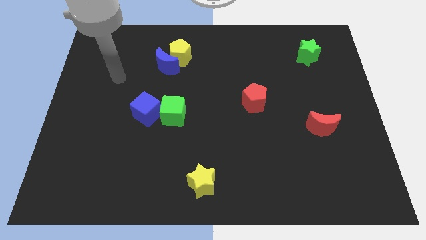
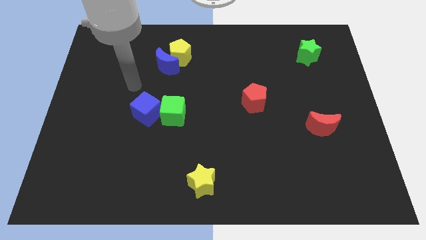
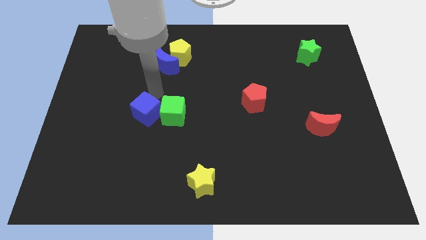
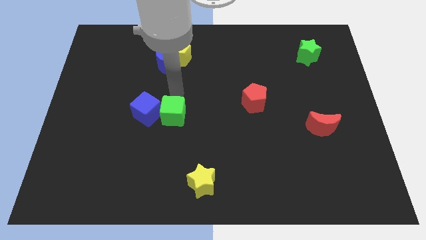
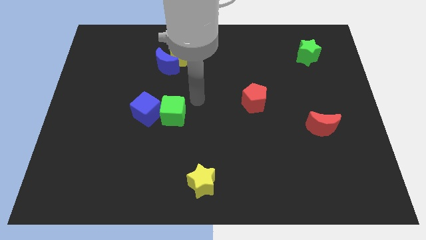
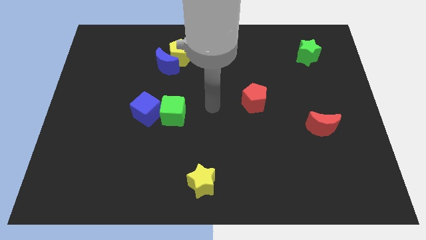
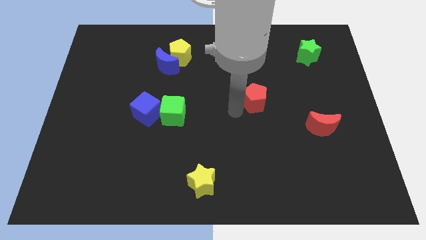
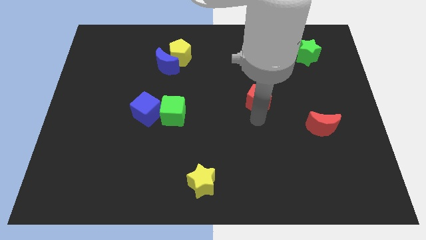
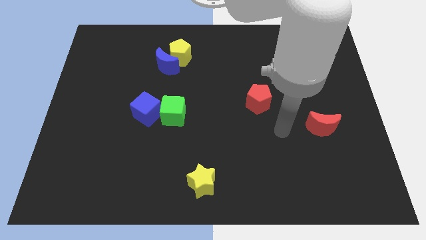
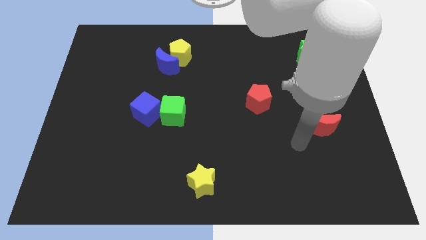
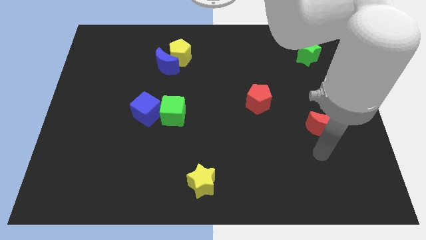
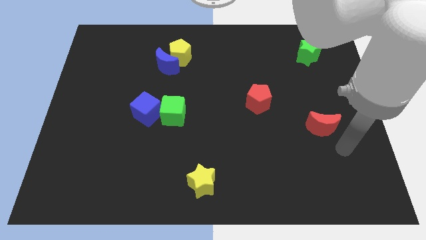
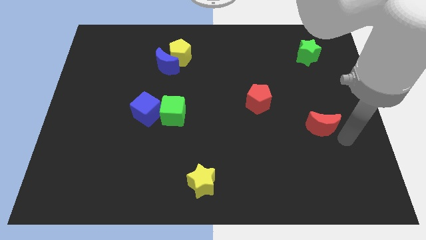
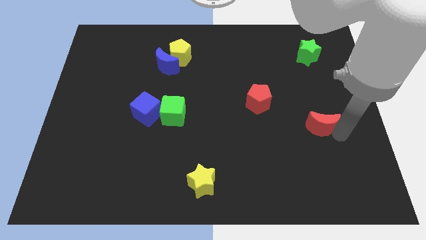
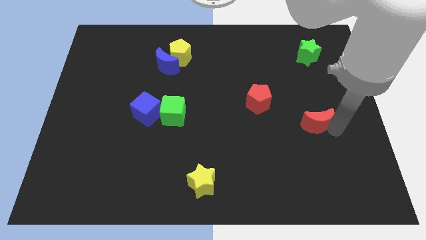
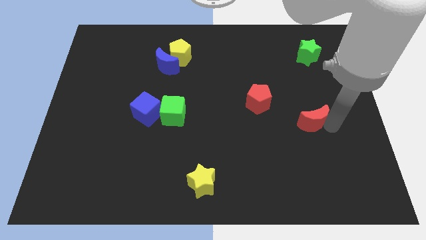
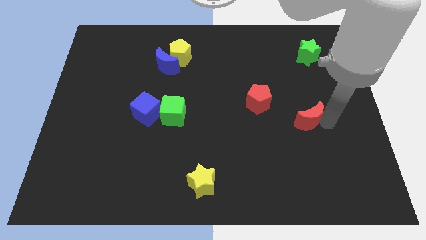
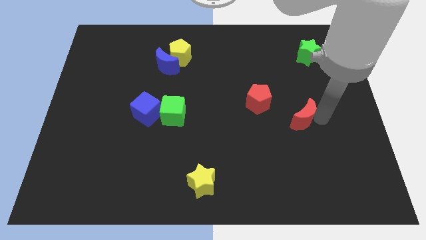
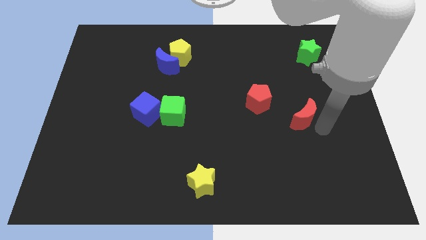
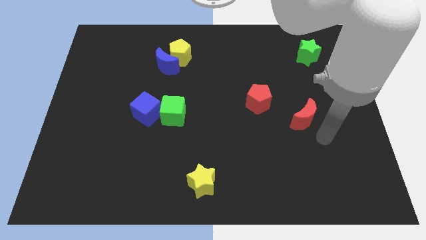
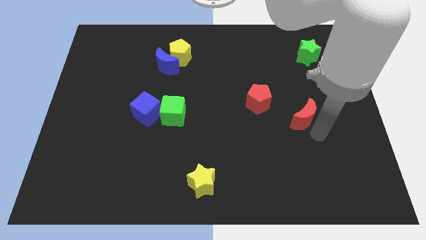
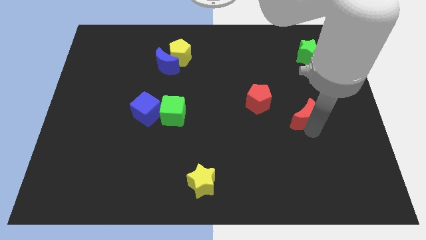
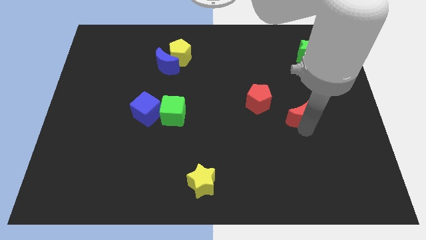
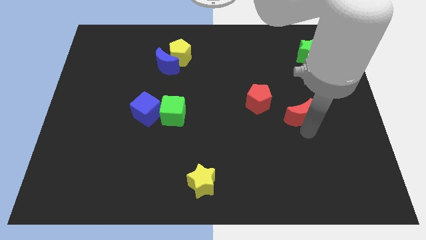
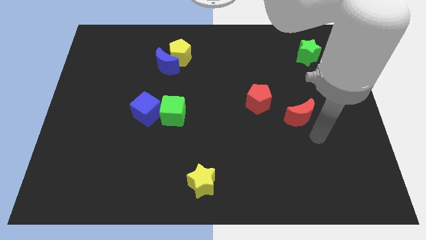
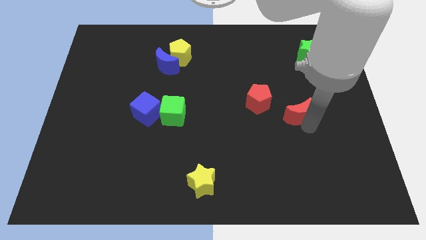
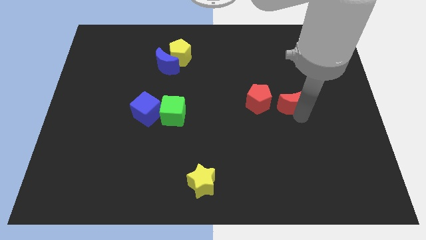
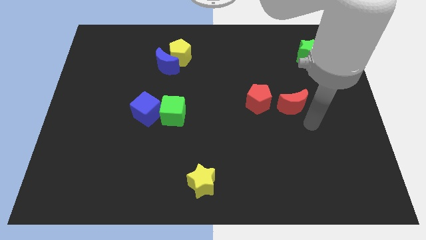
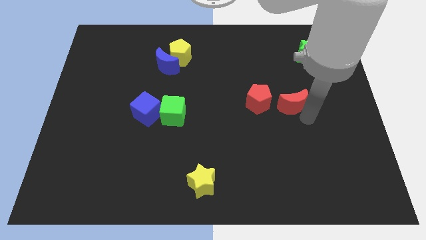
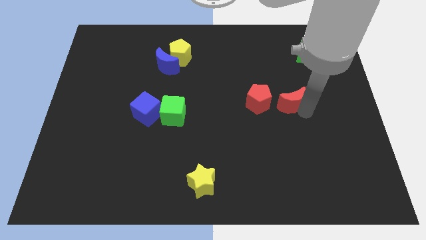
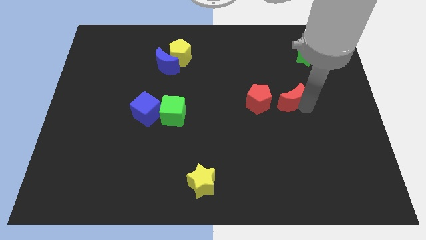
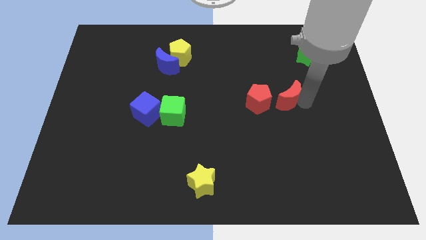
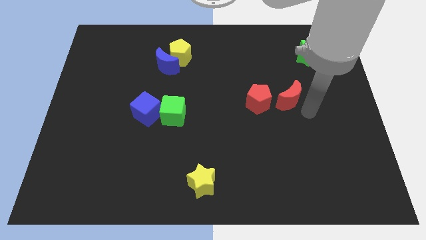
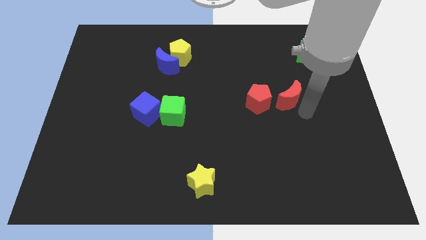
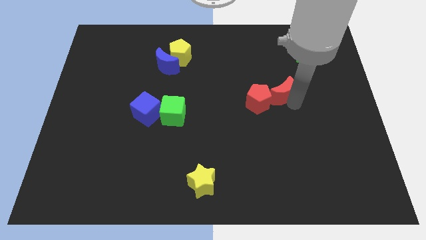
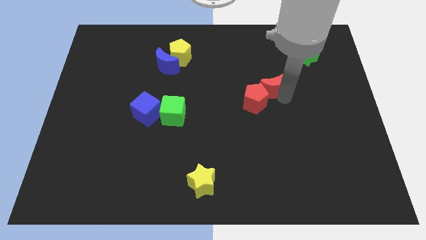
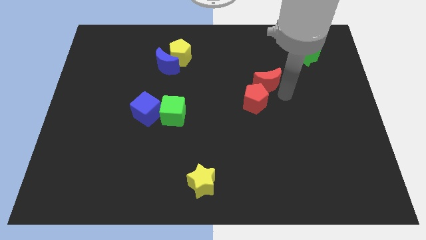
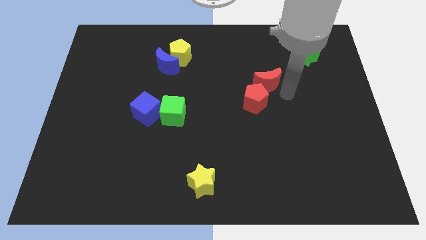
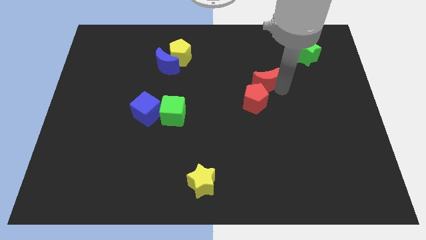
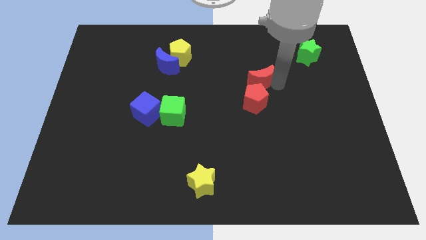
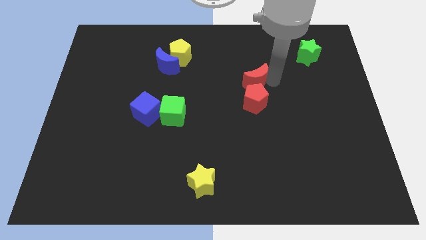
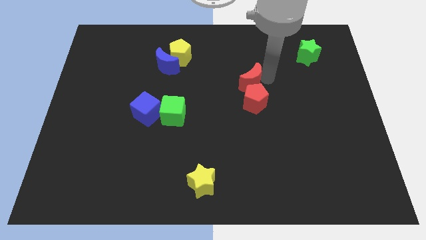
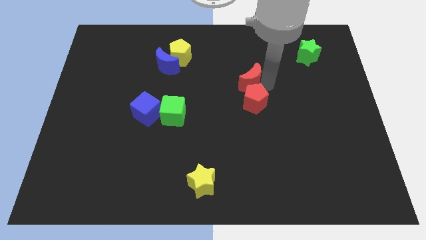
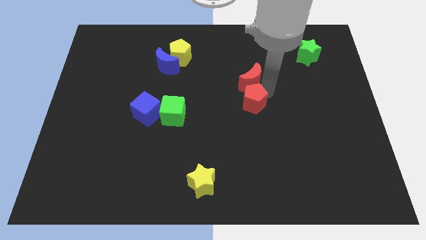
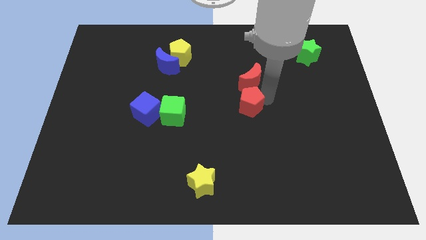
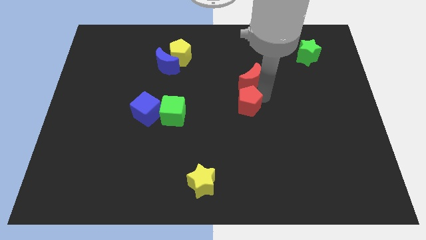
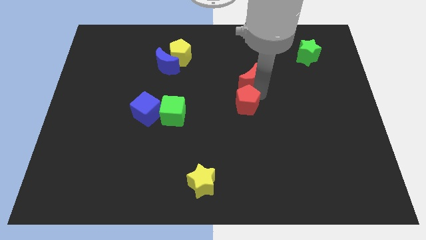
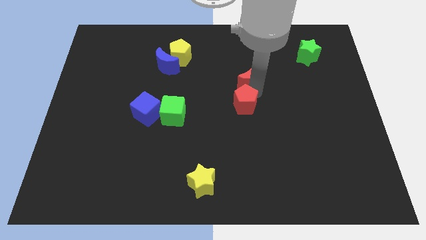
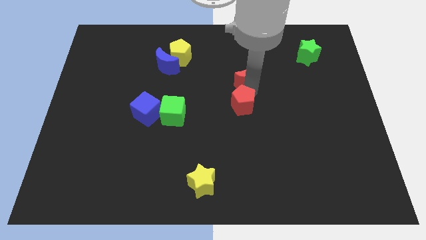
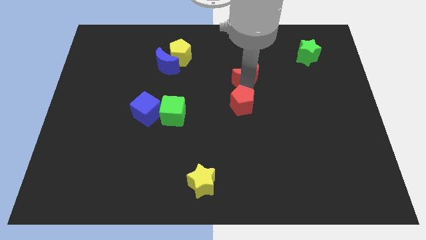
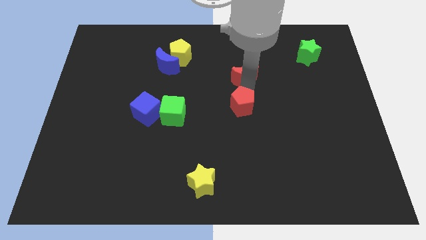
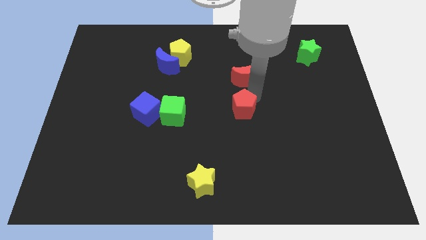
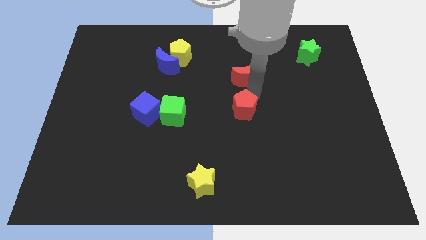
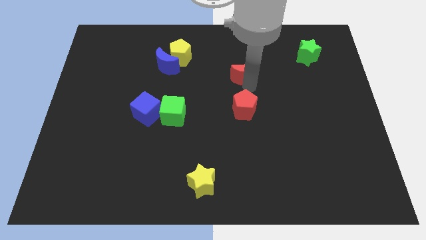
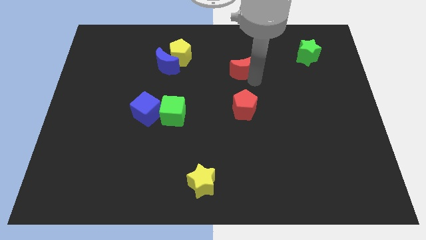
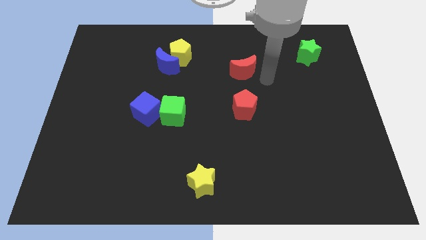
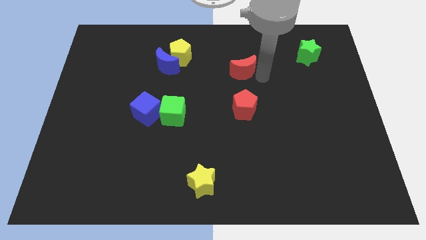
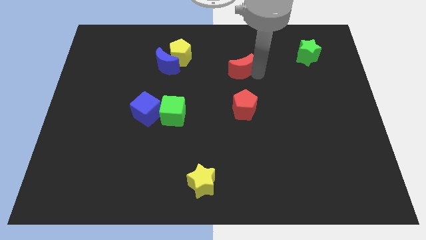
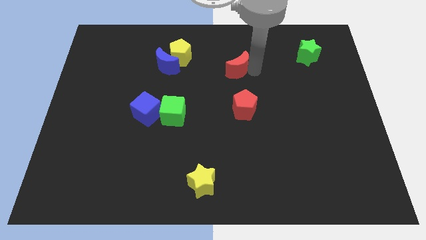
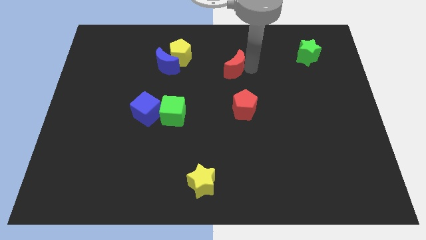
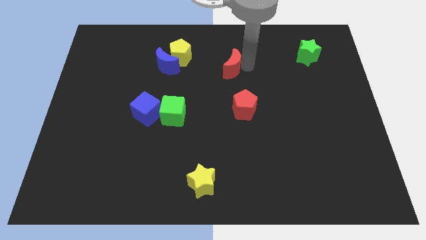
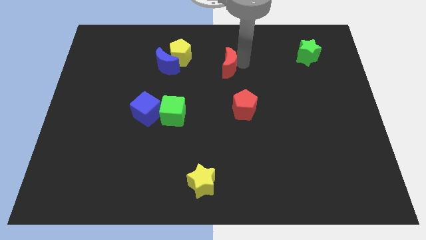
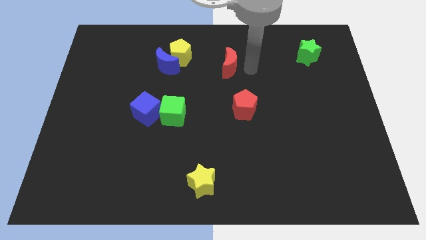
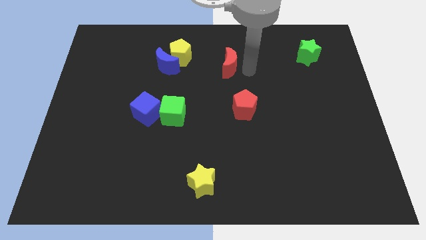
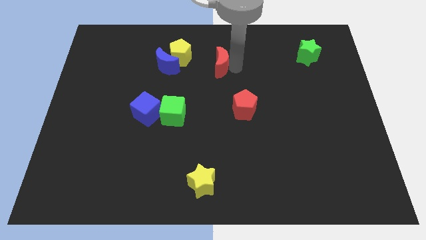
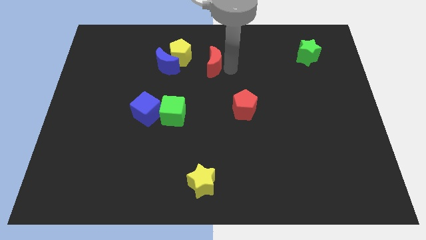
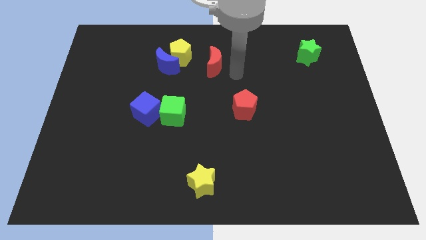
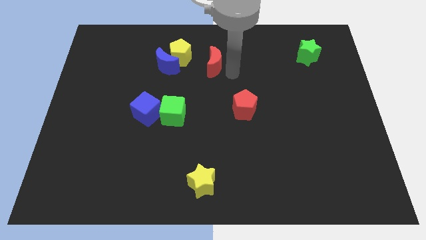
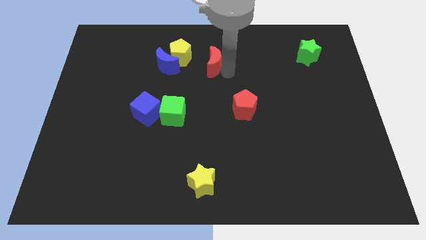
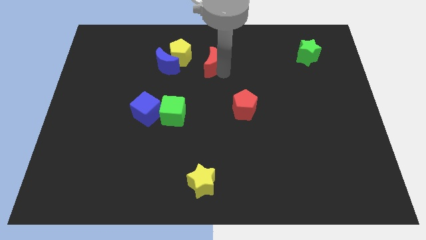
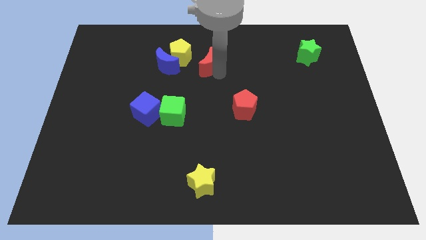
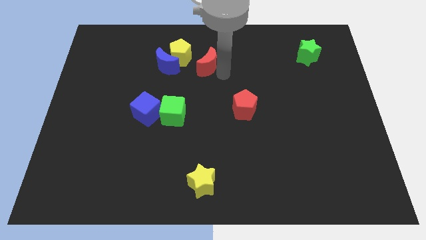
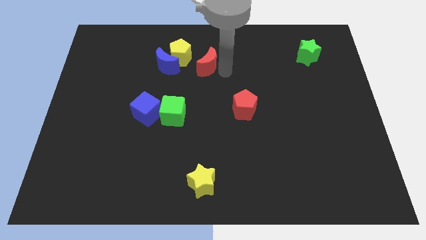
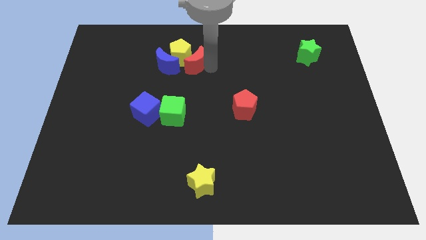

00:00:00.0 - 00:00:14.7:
slide the red moon next to the yellow pentagon
